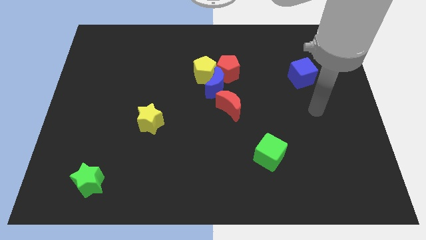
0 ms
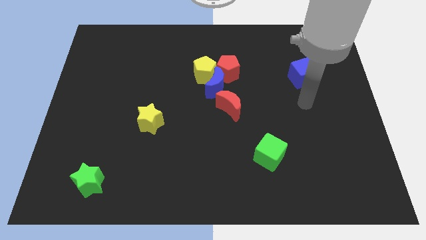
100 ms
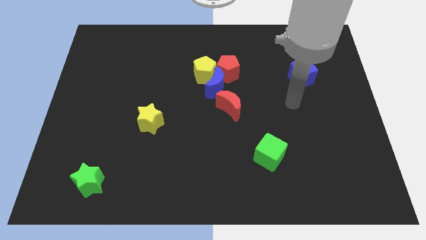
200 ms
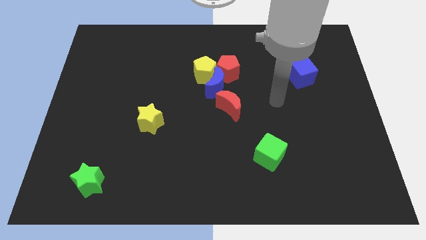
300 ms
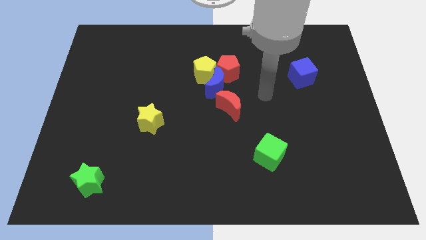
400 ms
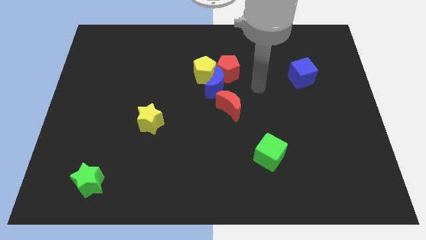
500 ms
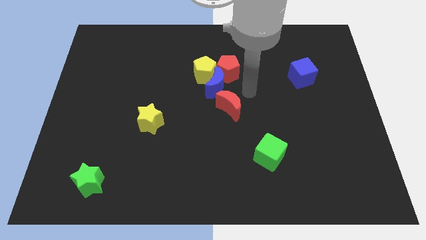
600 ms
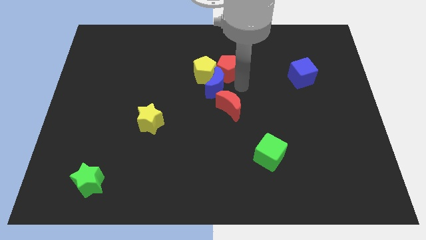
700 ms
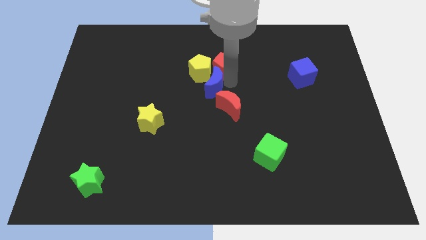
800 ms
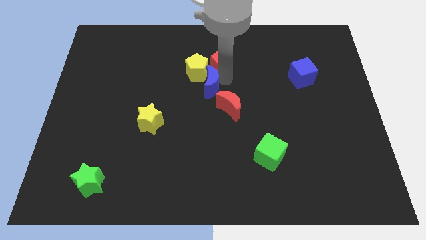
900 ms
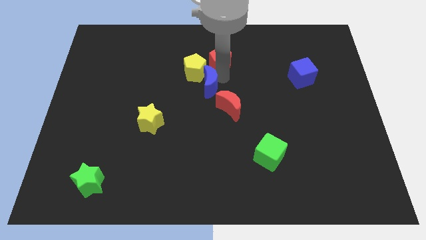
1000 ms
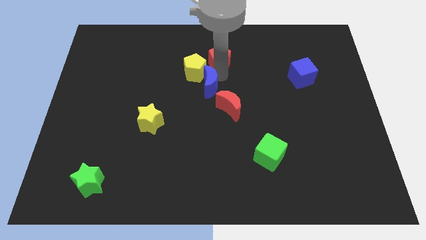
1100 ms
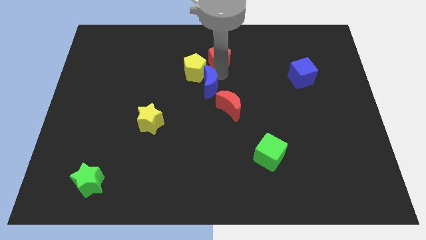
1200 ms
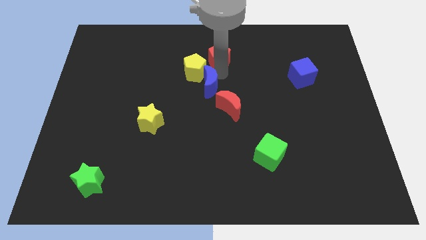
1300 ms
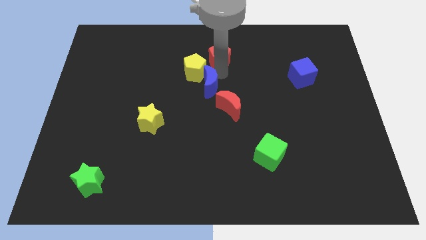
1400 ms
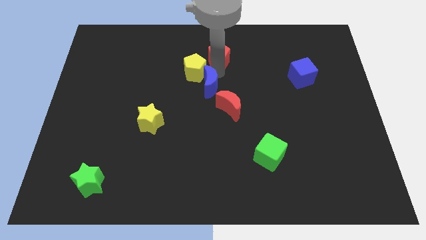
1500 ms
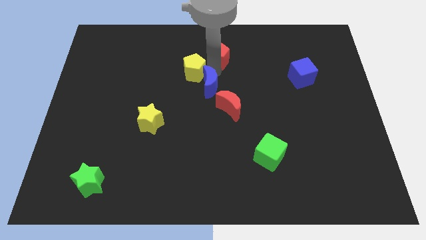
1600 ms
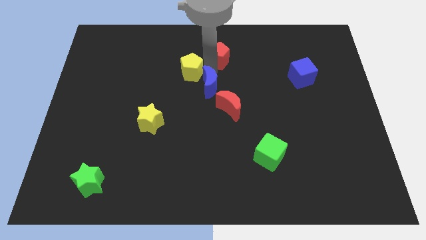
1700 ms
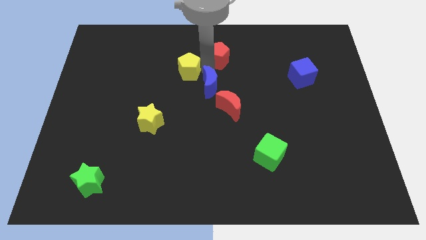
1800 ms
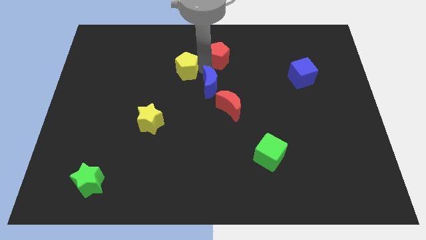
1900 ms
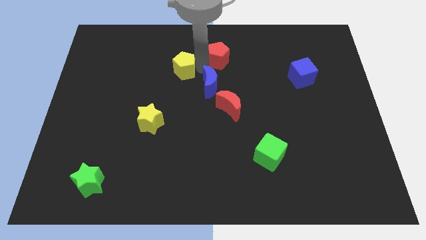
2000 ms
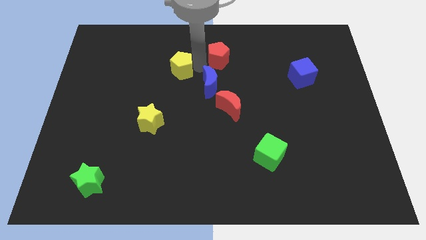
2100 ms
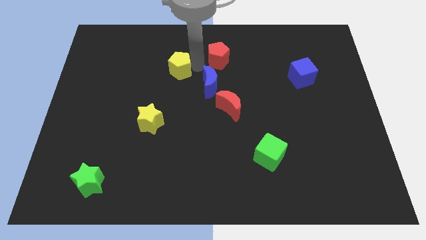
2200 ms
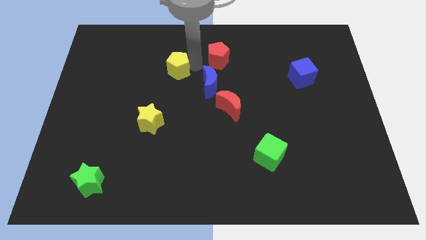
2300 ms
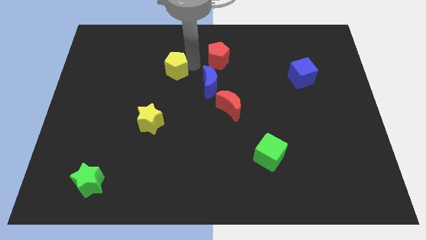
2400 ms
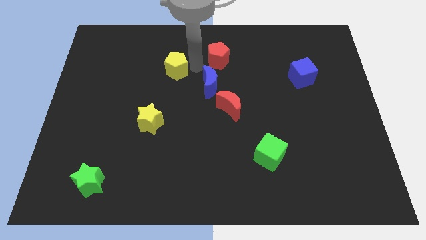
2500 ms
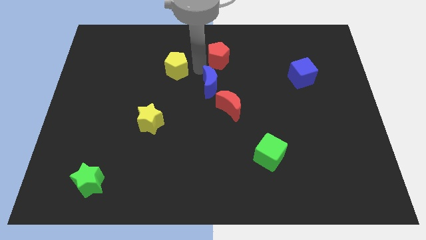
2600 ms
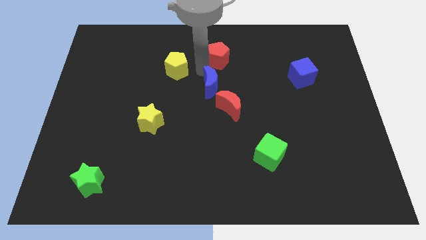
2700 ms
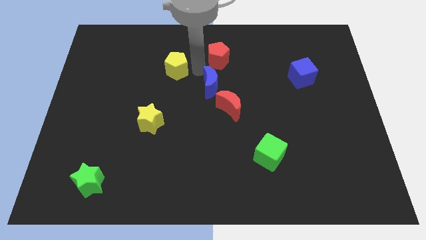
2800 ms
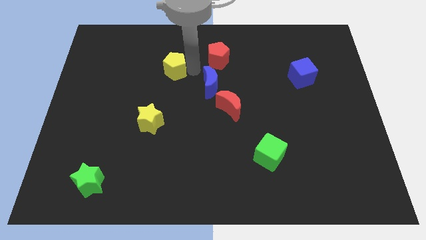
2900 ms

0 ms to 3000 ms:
separate the yellow pentagon from the blue moon and red pentagon

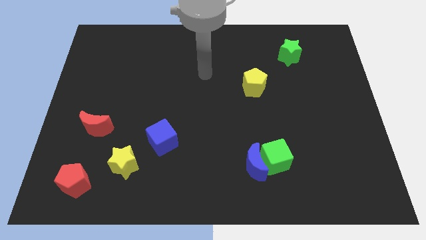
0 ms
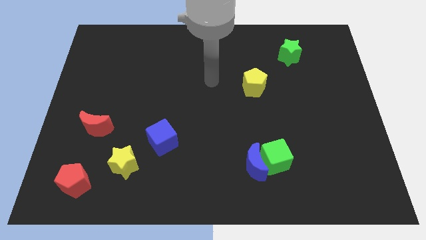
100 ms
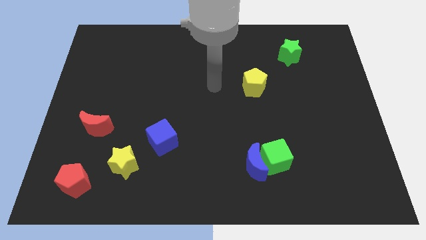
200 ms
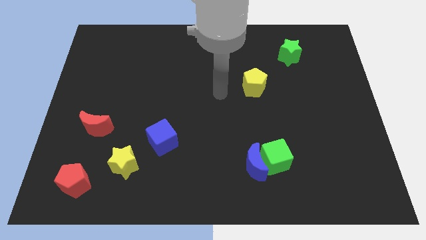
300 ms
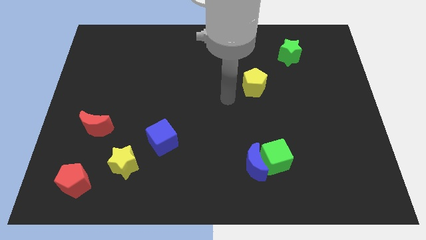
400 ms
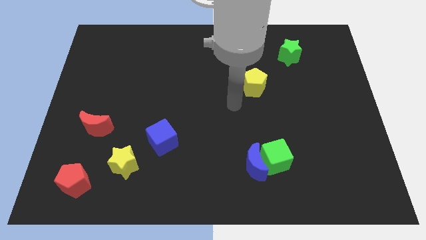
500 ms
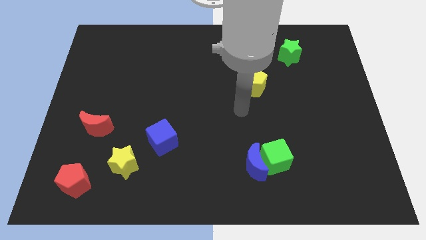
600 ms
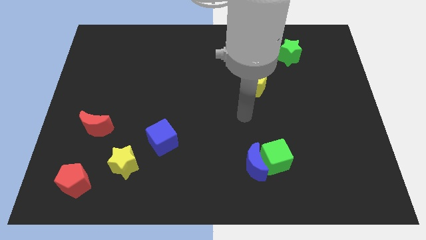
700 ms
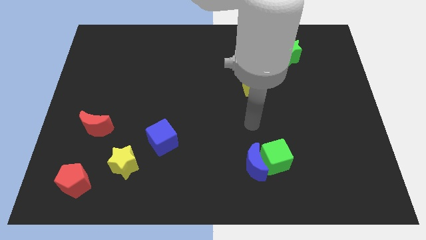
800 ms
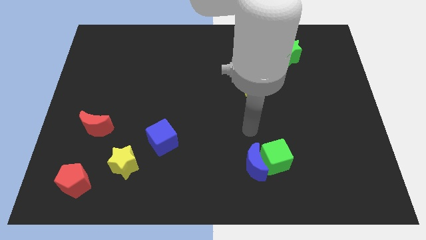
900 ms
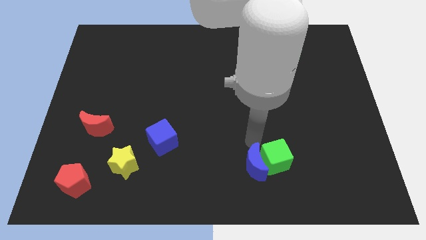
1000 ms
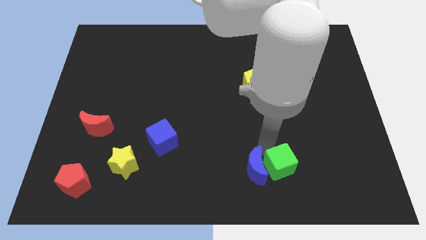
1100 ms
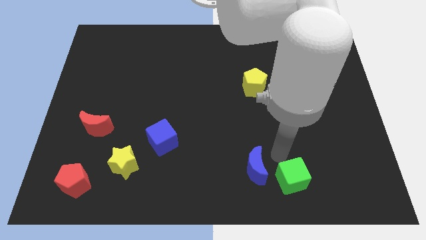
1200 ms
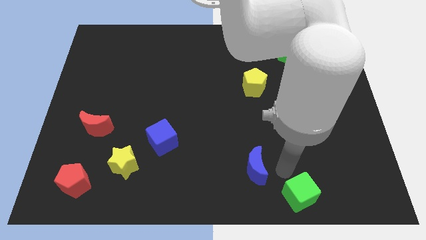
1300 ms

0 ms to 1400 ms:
pull the blue moon apart from the green cube

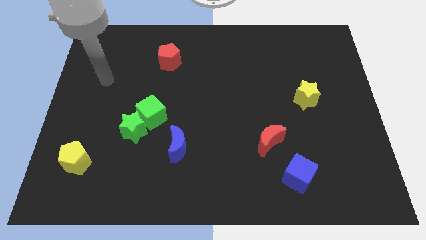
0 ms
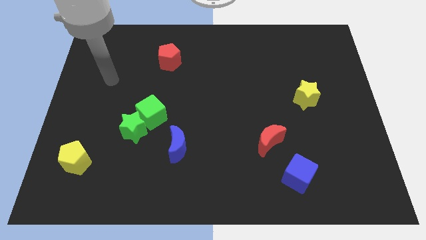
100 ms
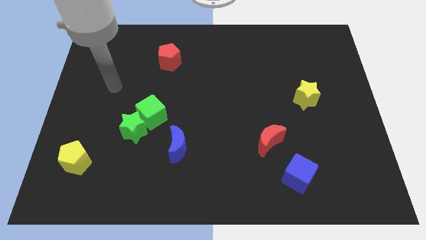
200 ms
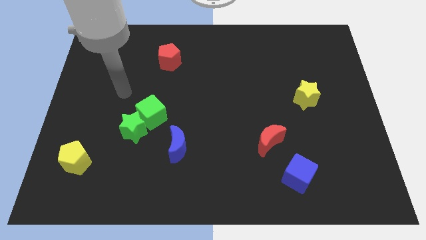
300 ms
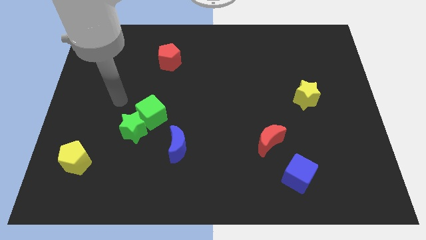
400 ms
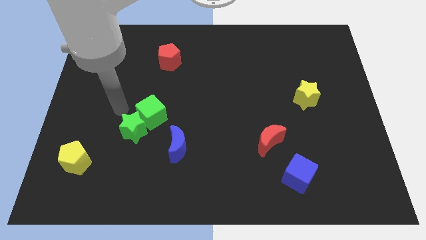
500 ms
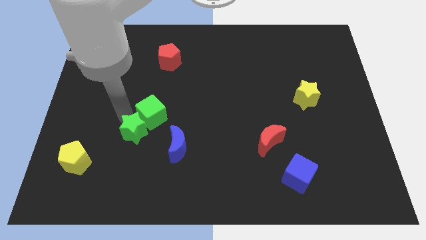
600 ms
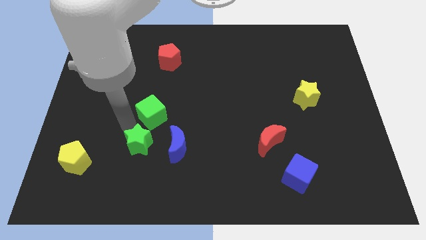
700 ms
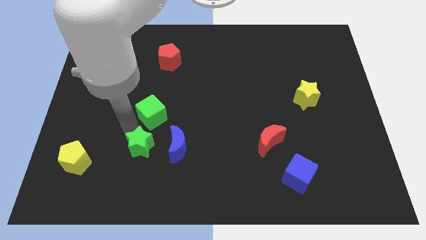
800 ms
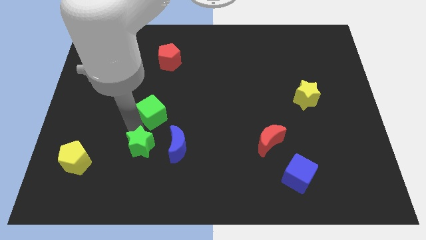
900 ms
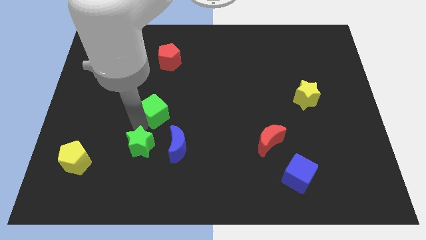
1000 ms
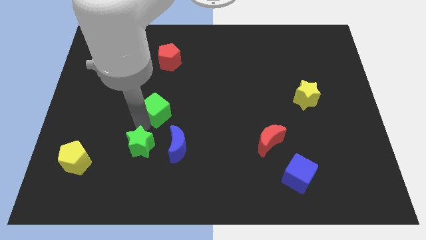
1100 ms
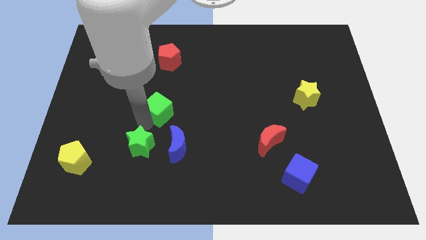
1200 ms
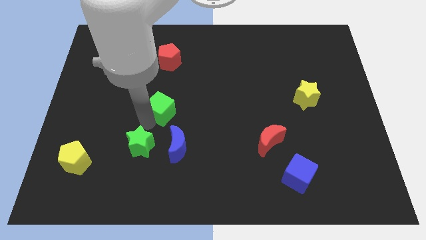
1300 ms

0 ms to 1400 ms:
pull the green cube apart from the green star

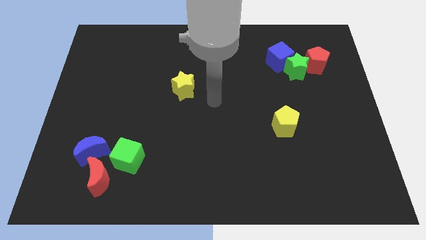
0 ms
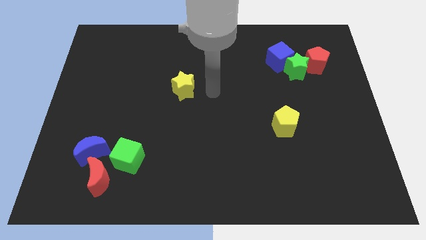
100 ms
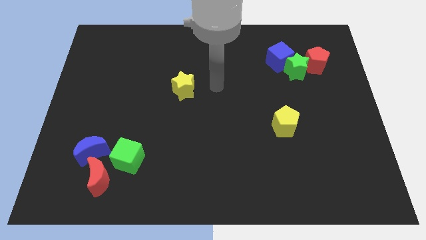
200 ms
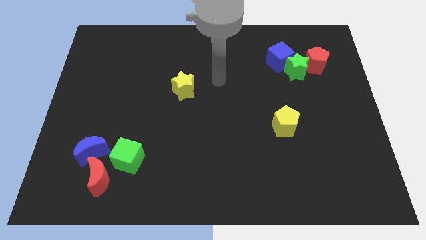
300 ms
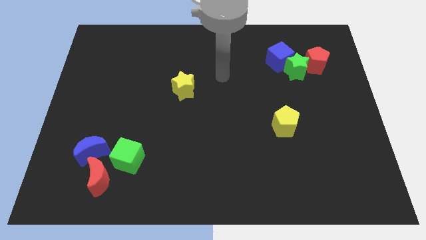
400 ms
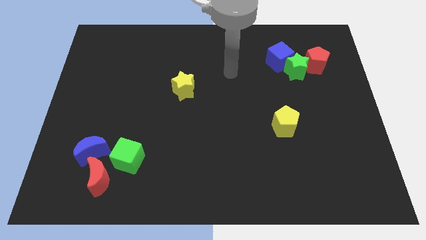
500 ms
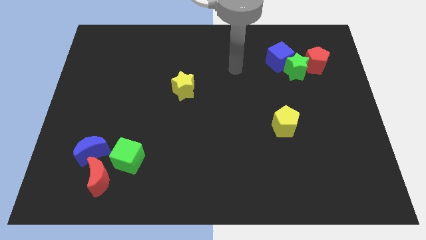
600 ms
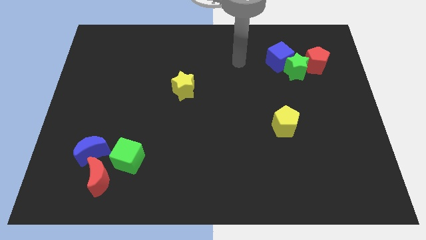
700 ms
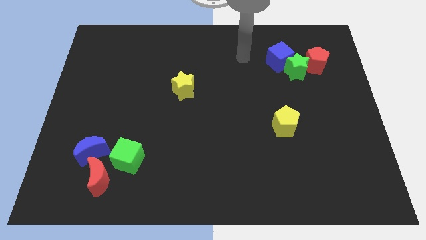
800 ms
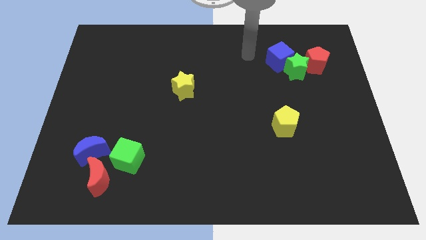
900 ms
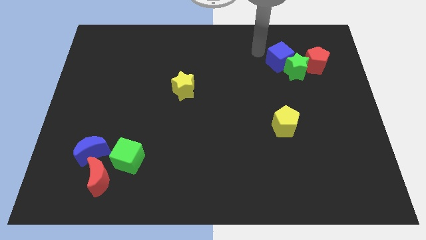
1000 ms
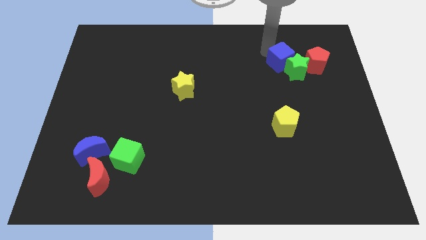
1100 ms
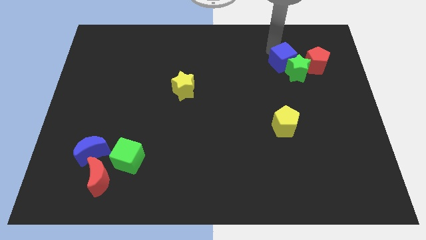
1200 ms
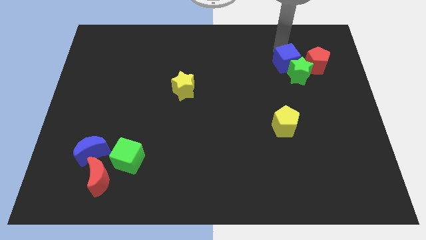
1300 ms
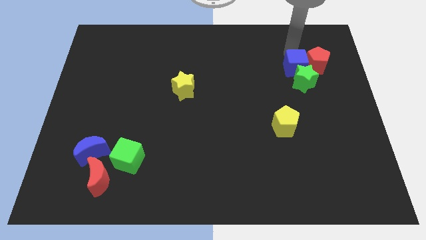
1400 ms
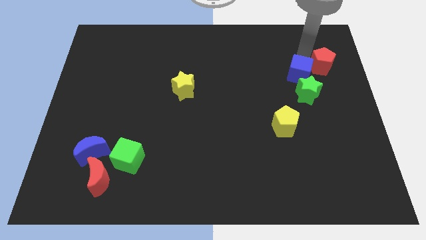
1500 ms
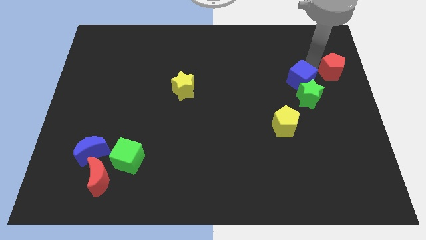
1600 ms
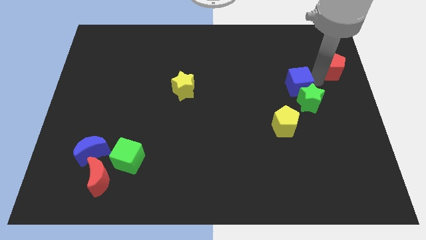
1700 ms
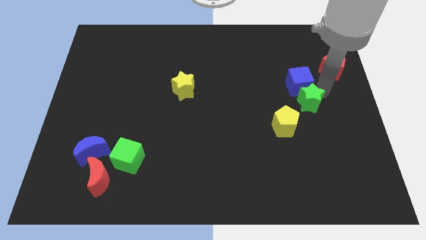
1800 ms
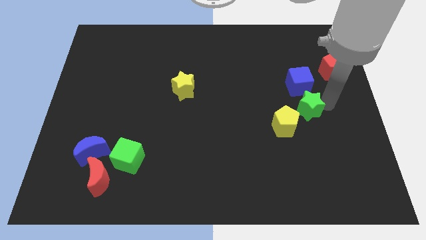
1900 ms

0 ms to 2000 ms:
move the green star away from the blue cube and red pentagon

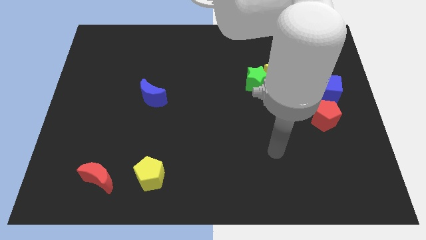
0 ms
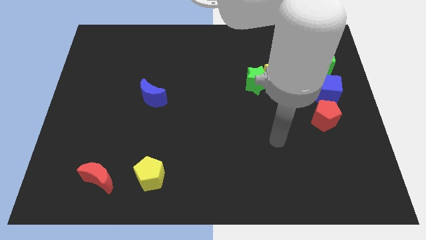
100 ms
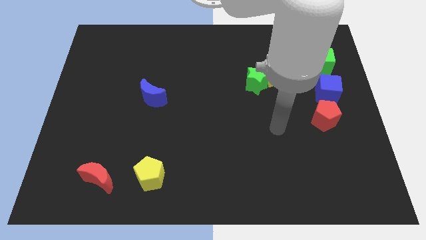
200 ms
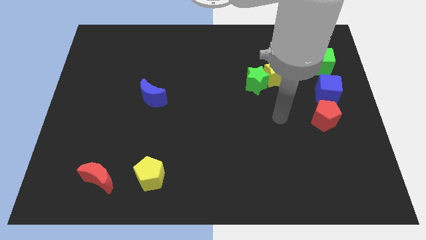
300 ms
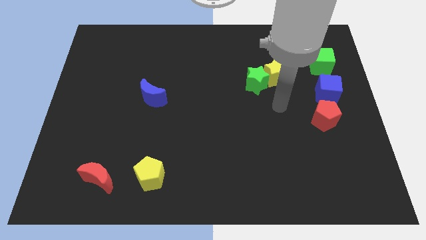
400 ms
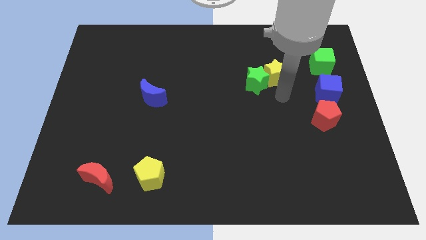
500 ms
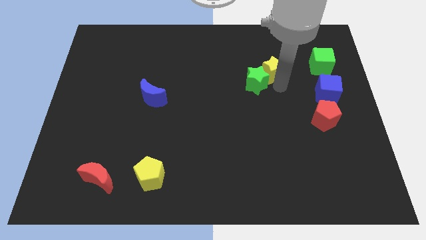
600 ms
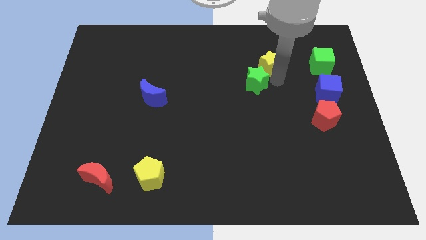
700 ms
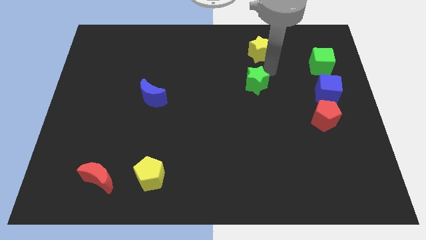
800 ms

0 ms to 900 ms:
move the green star away from the yellow star

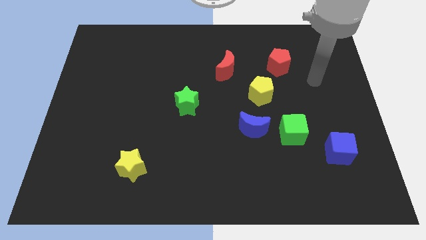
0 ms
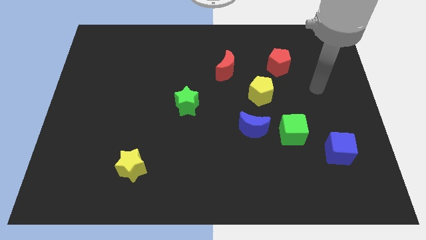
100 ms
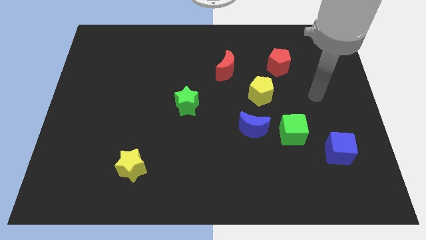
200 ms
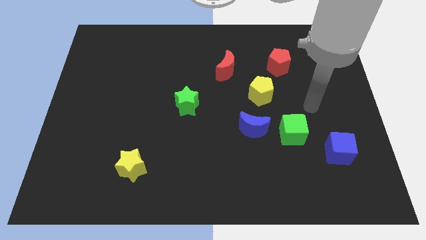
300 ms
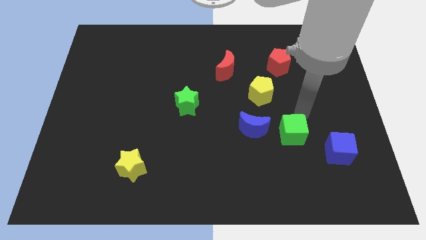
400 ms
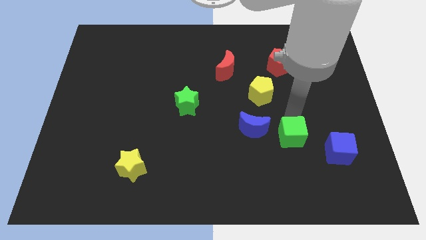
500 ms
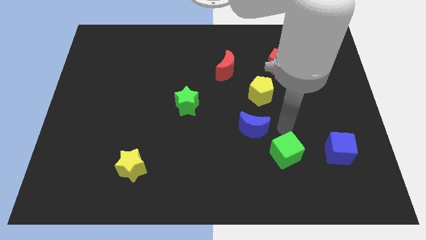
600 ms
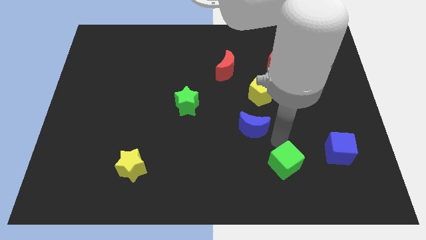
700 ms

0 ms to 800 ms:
separate the blue moon from the green cube
